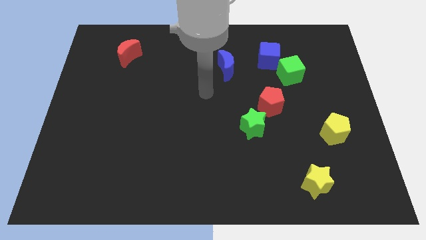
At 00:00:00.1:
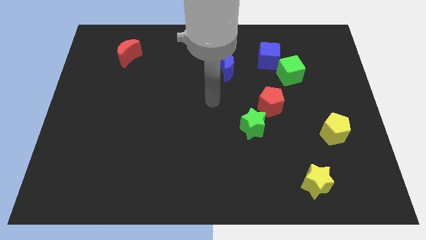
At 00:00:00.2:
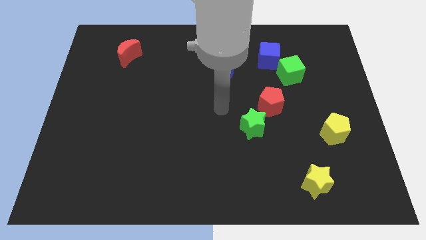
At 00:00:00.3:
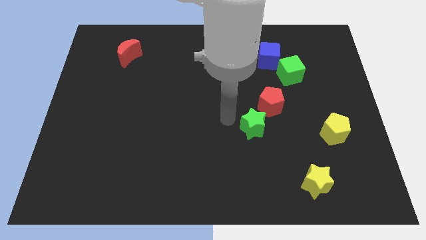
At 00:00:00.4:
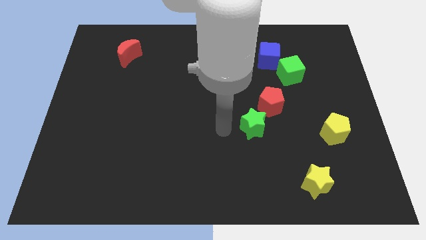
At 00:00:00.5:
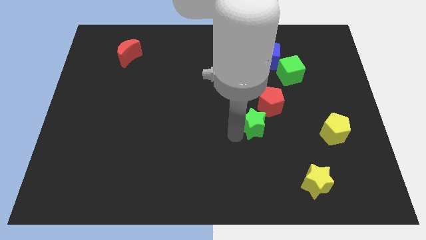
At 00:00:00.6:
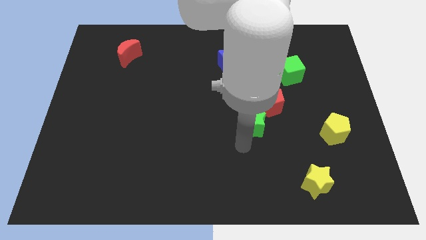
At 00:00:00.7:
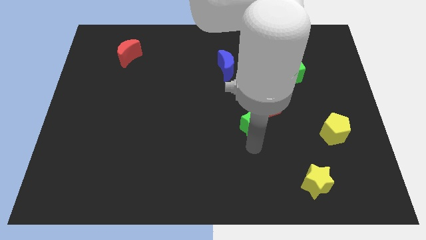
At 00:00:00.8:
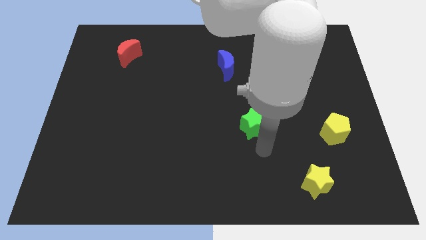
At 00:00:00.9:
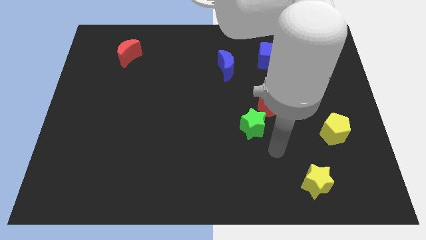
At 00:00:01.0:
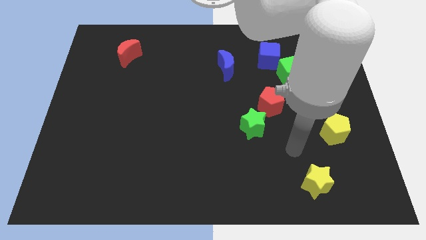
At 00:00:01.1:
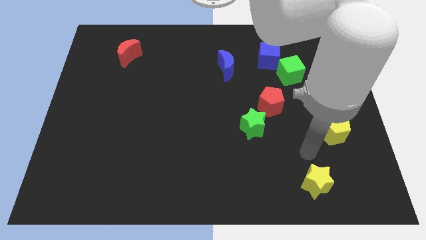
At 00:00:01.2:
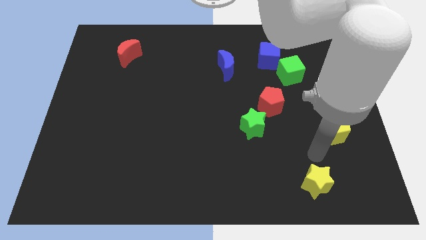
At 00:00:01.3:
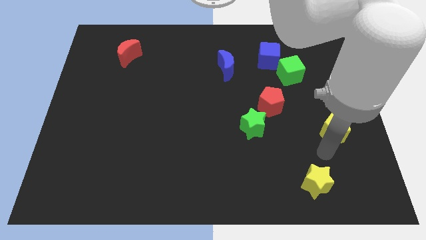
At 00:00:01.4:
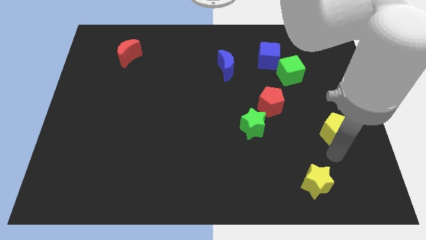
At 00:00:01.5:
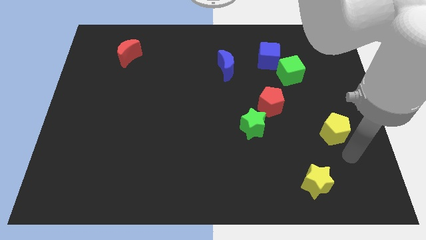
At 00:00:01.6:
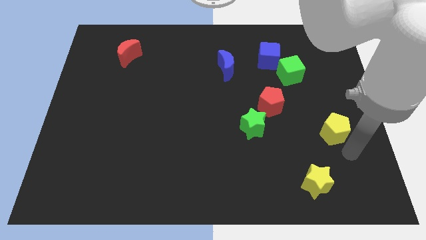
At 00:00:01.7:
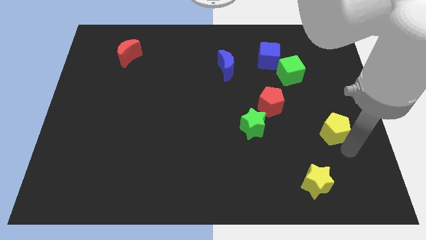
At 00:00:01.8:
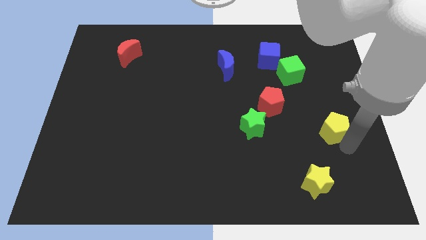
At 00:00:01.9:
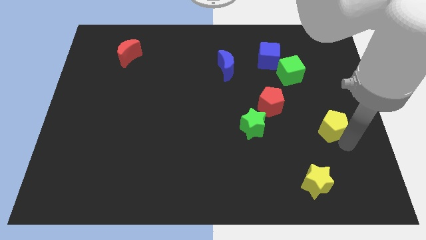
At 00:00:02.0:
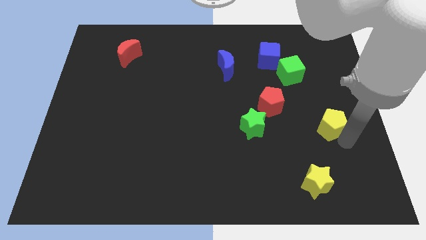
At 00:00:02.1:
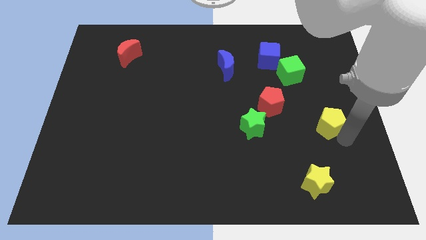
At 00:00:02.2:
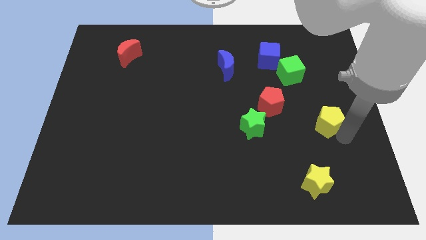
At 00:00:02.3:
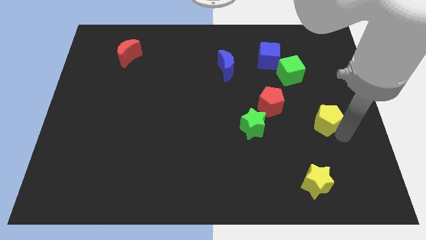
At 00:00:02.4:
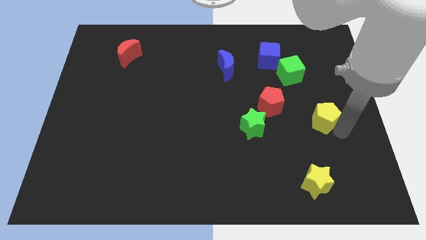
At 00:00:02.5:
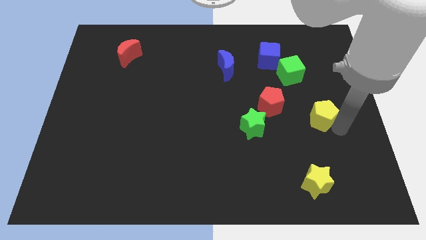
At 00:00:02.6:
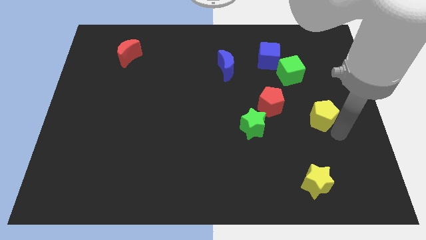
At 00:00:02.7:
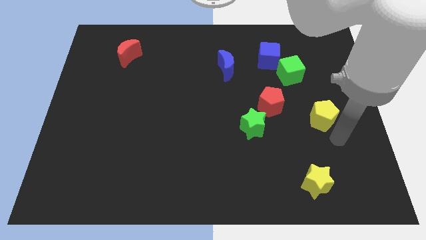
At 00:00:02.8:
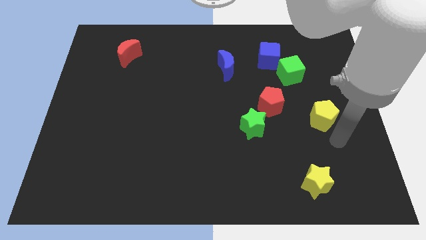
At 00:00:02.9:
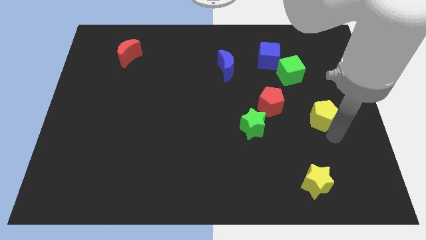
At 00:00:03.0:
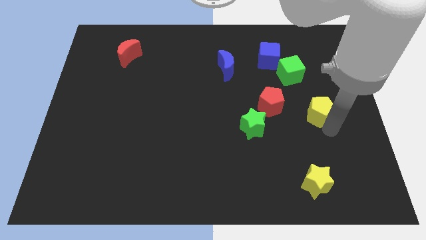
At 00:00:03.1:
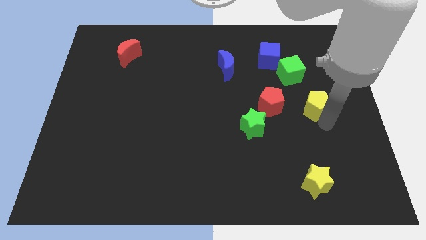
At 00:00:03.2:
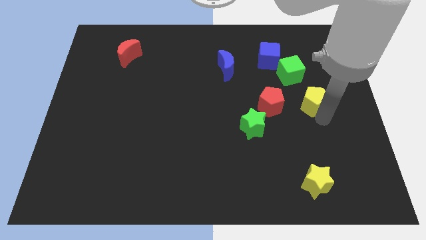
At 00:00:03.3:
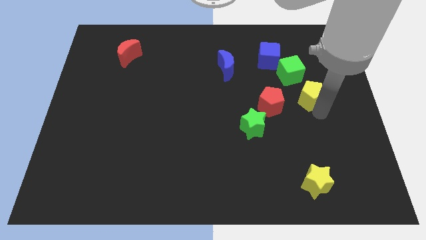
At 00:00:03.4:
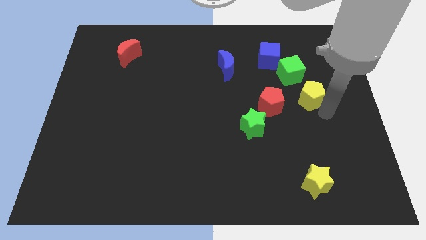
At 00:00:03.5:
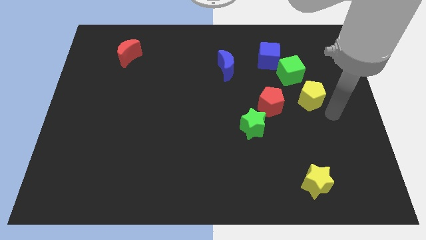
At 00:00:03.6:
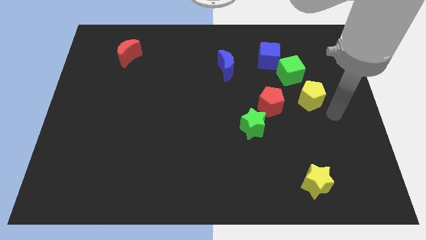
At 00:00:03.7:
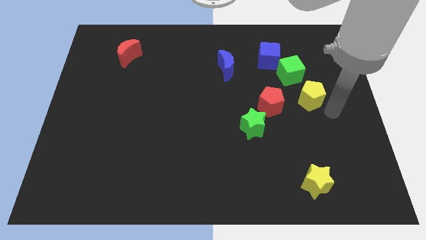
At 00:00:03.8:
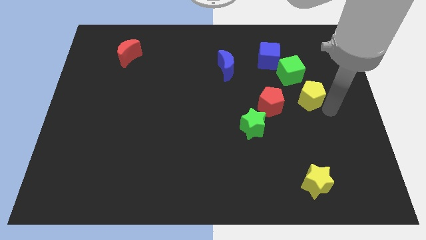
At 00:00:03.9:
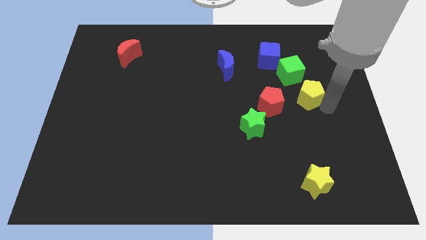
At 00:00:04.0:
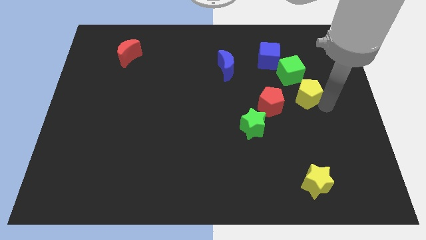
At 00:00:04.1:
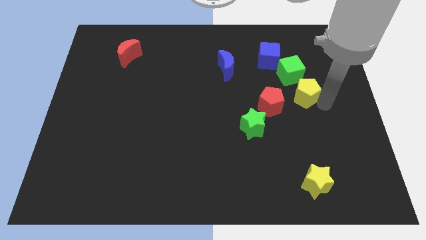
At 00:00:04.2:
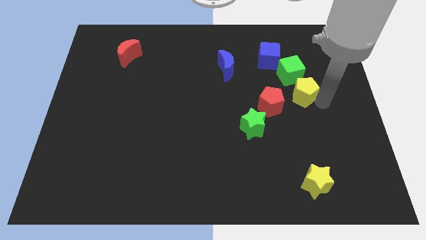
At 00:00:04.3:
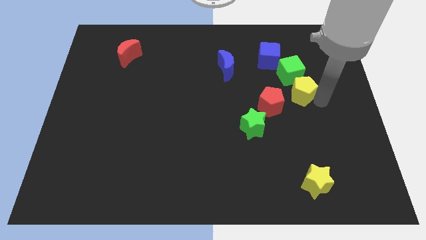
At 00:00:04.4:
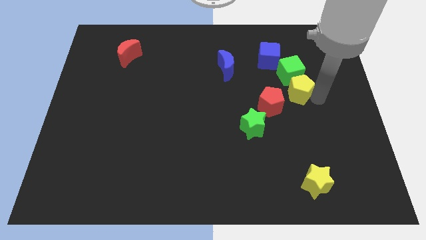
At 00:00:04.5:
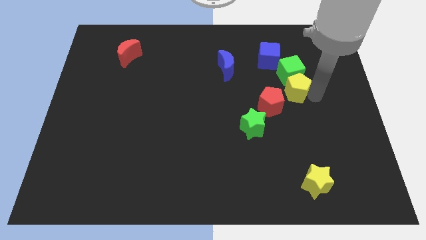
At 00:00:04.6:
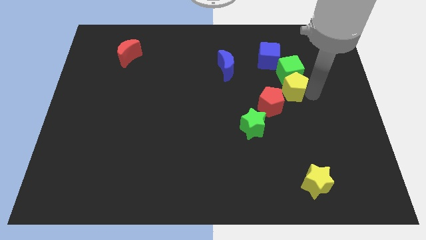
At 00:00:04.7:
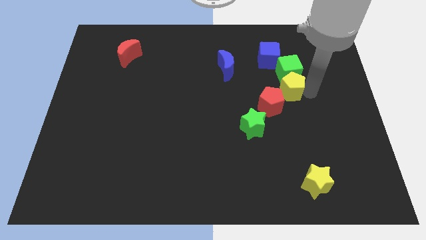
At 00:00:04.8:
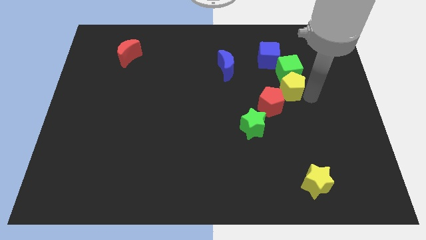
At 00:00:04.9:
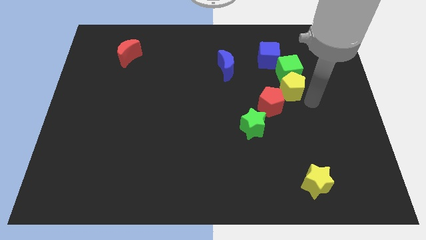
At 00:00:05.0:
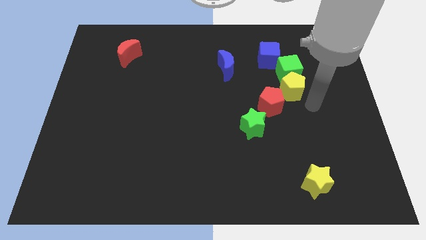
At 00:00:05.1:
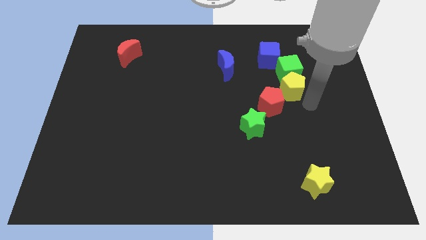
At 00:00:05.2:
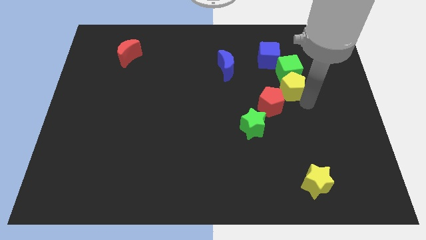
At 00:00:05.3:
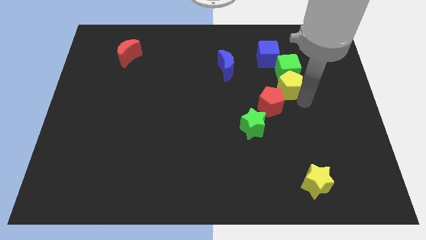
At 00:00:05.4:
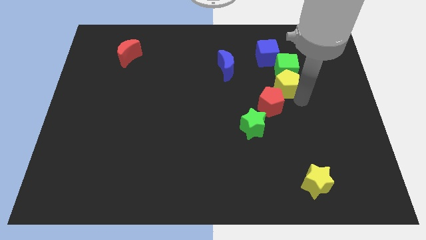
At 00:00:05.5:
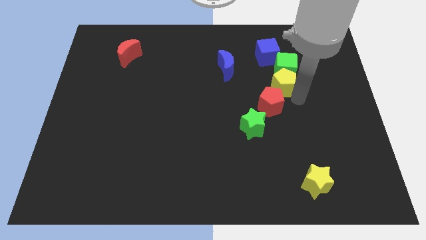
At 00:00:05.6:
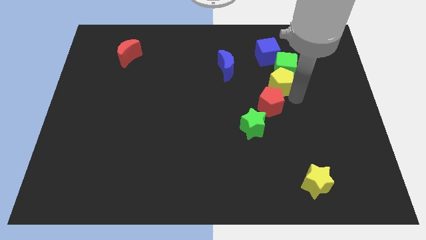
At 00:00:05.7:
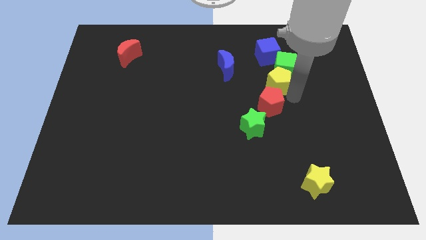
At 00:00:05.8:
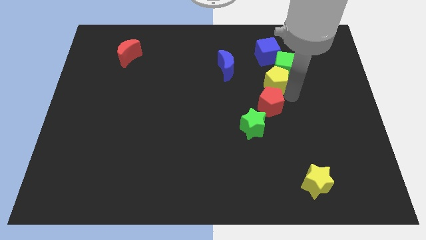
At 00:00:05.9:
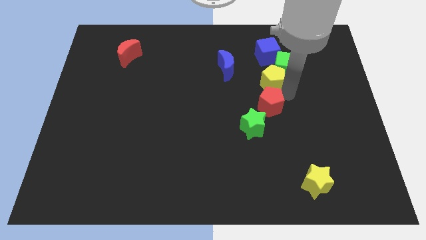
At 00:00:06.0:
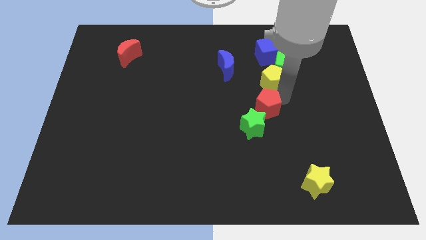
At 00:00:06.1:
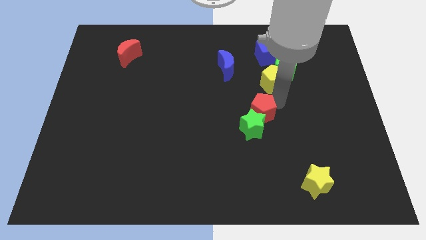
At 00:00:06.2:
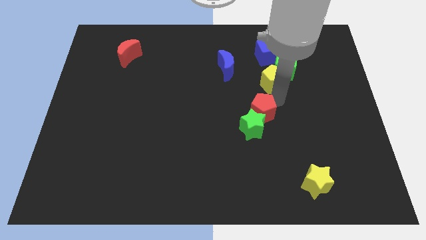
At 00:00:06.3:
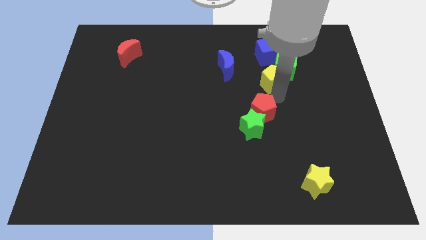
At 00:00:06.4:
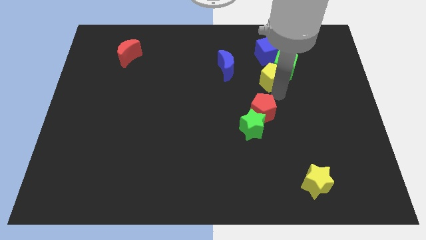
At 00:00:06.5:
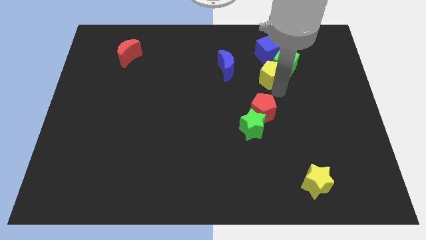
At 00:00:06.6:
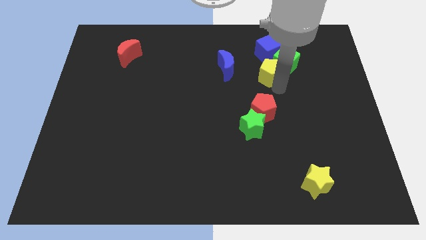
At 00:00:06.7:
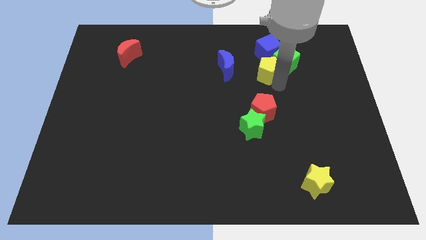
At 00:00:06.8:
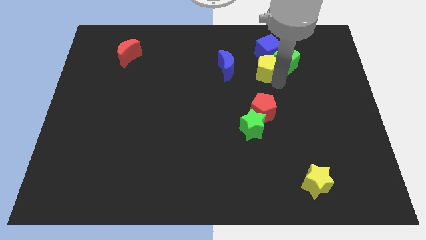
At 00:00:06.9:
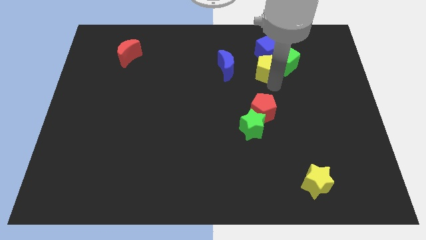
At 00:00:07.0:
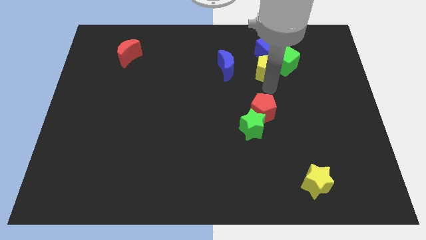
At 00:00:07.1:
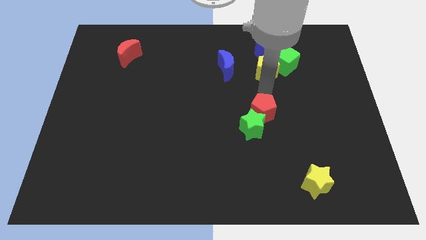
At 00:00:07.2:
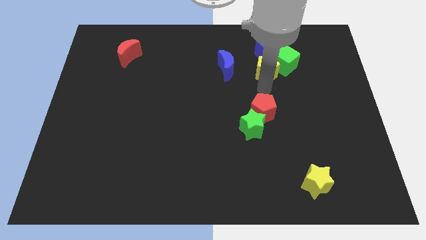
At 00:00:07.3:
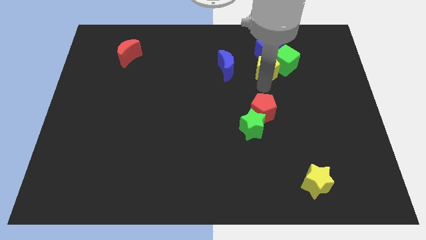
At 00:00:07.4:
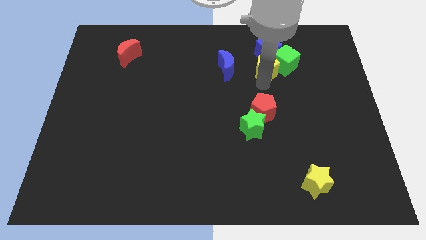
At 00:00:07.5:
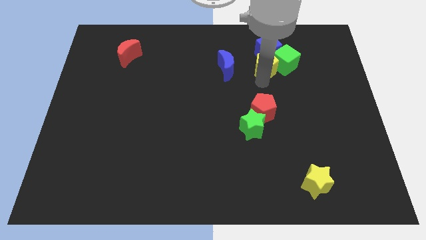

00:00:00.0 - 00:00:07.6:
move the yellow pentagon towards the blue cube
